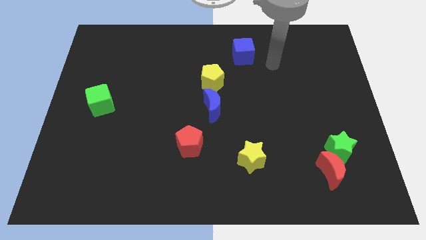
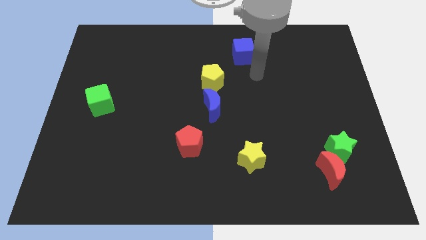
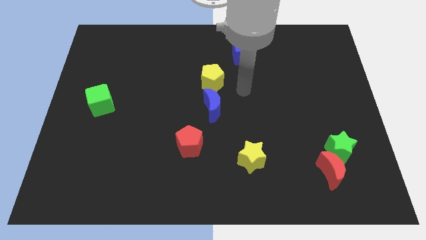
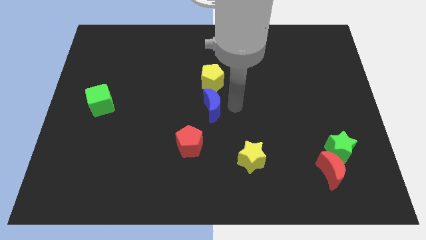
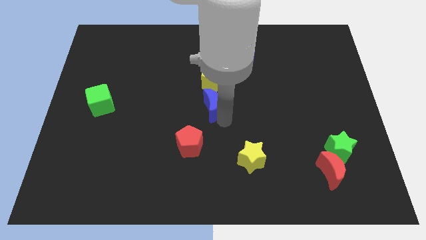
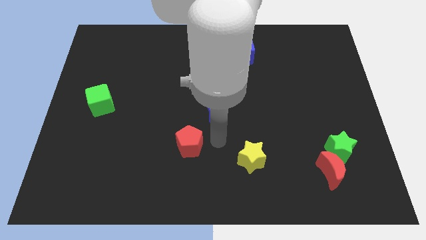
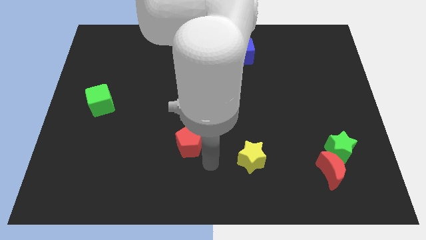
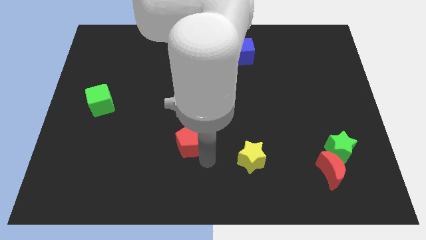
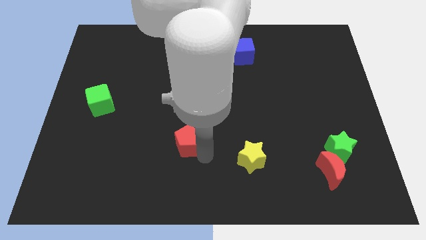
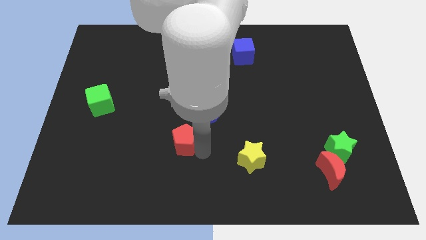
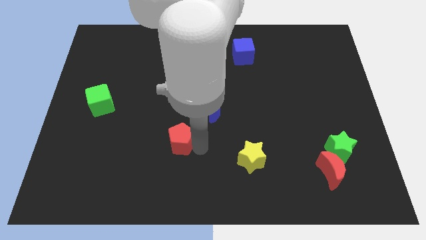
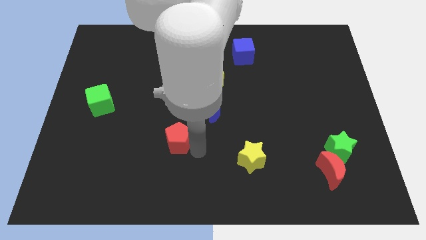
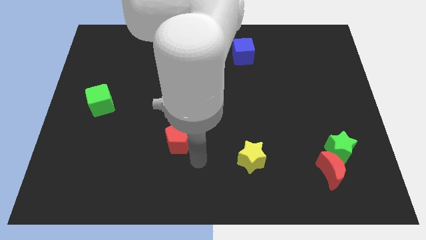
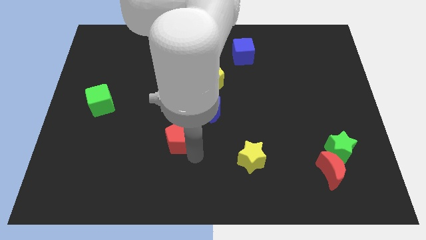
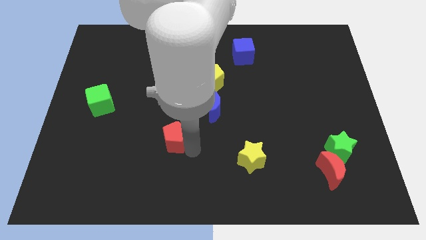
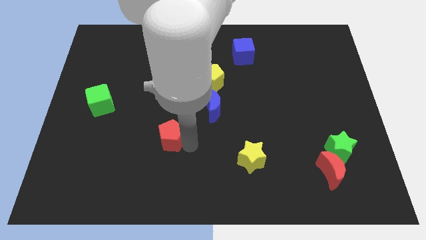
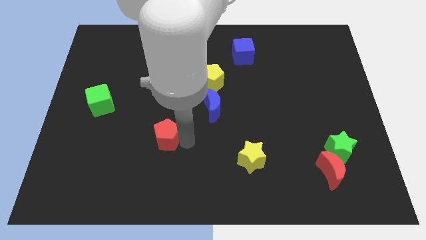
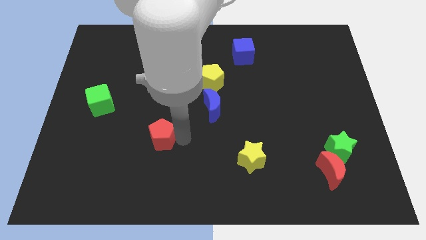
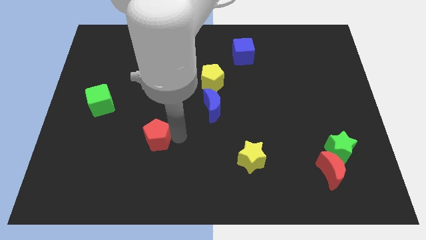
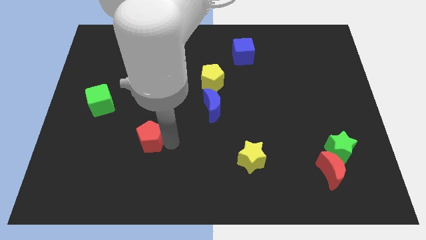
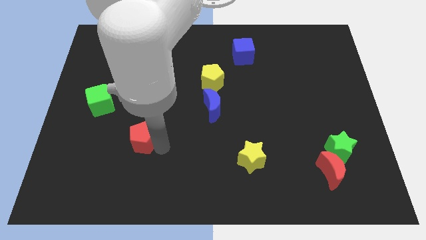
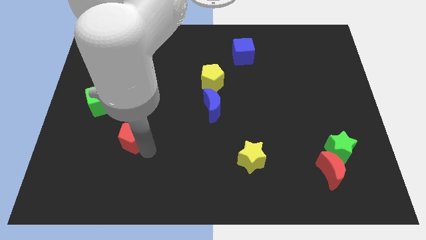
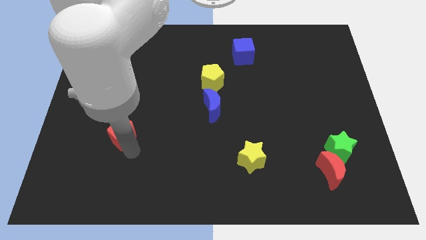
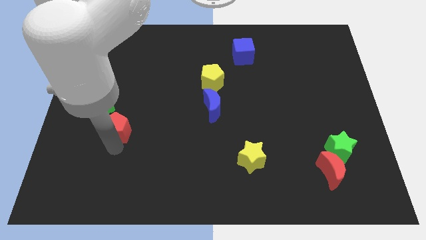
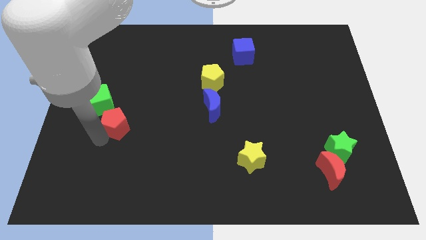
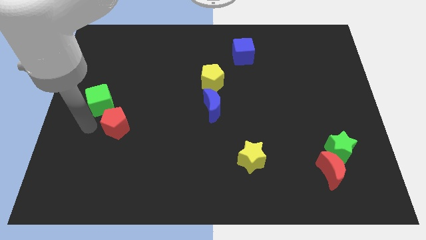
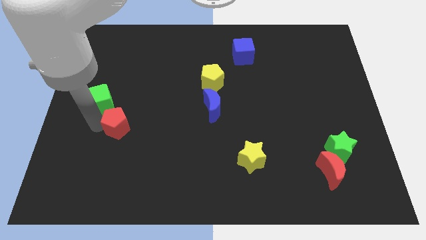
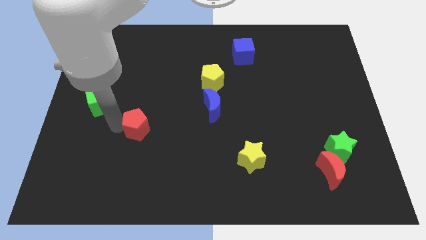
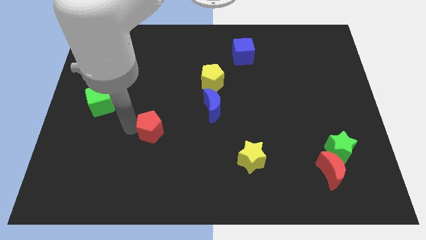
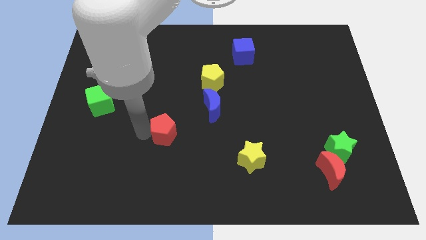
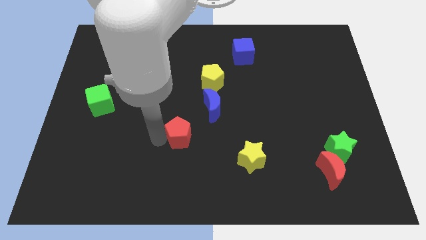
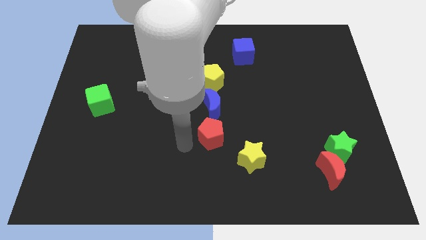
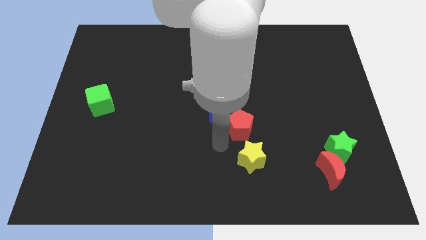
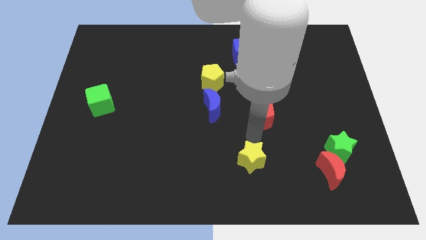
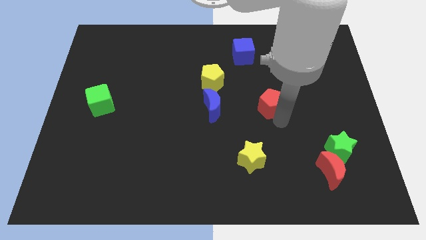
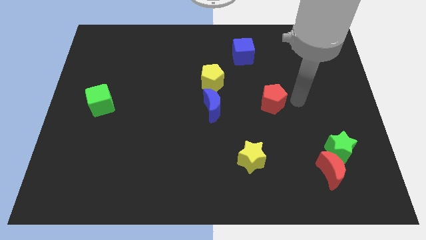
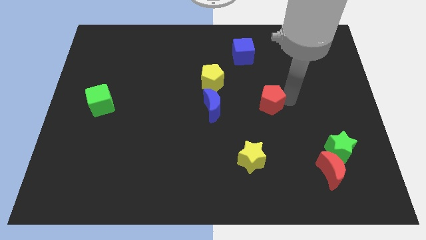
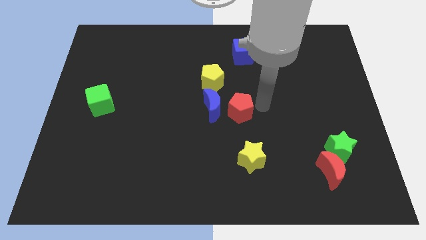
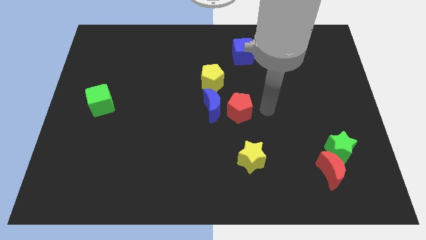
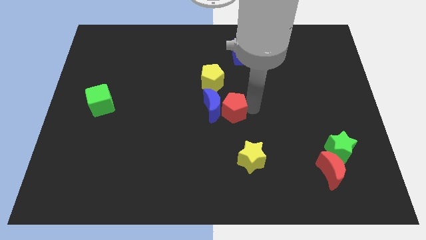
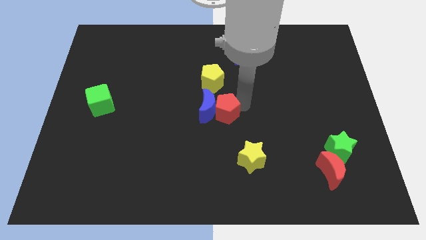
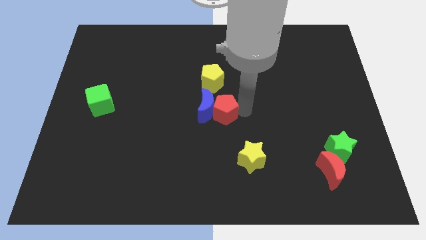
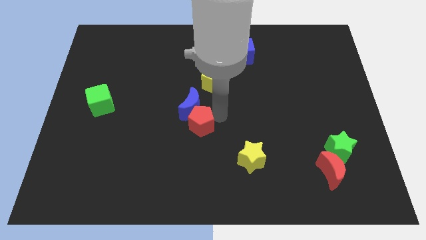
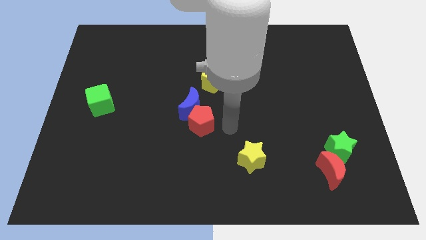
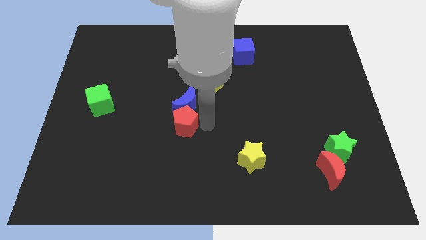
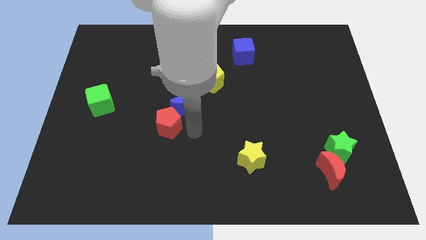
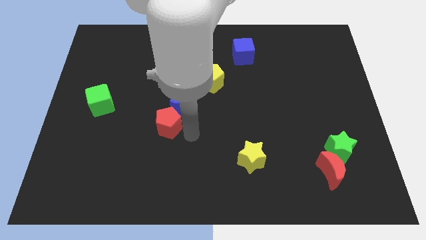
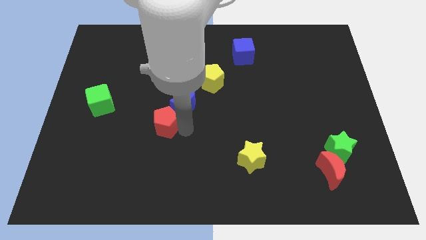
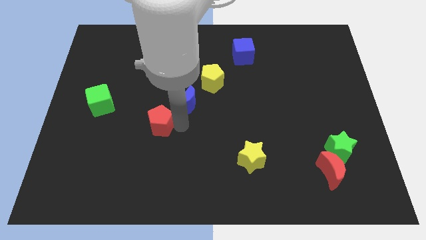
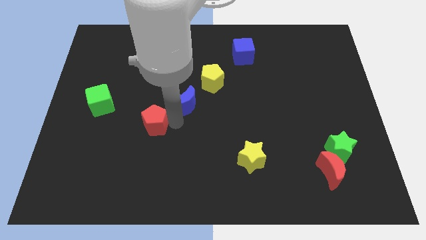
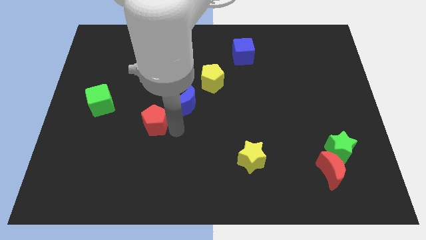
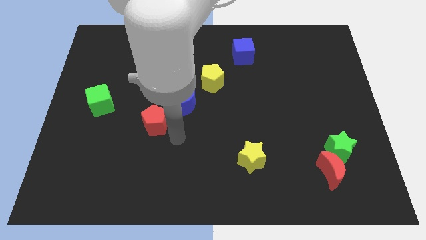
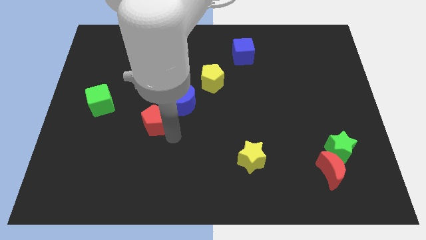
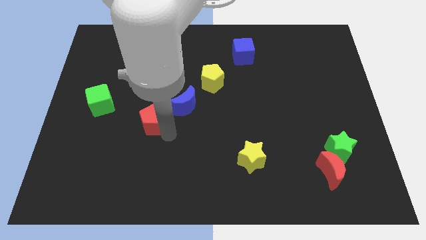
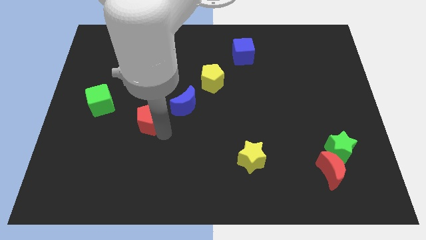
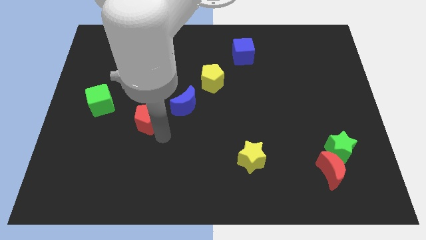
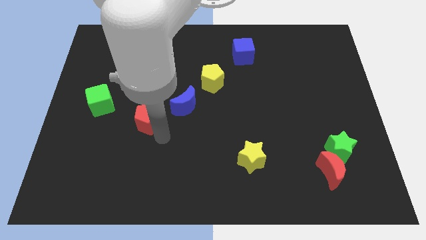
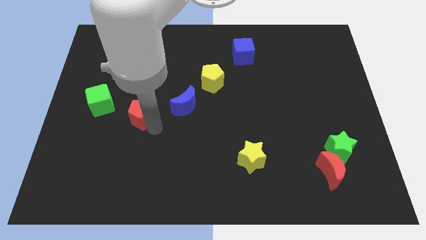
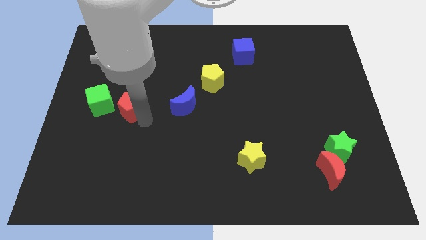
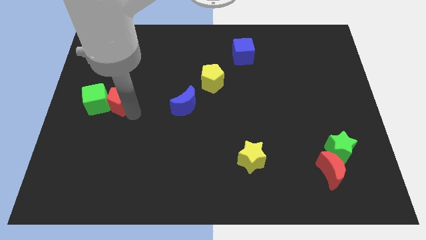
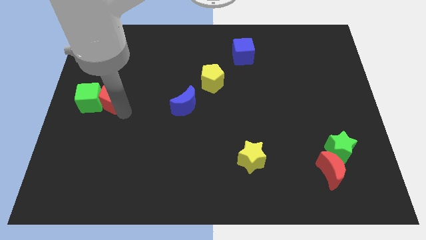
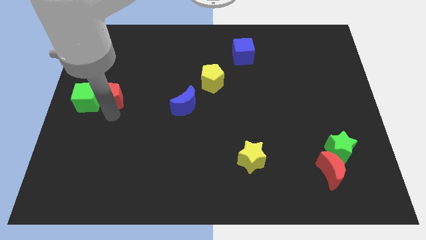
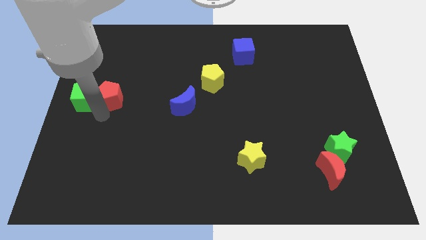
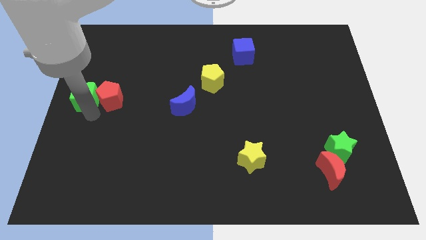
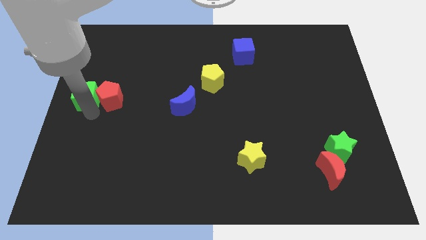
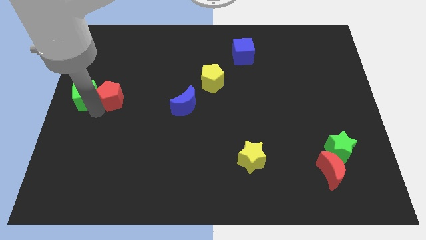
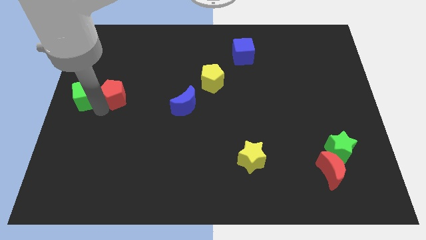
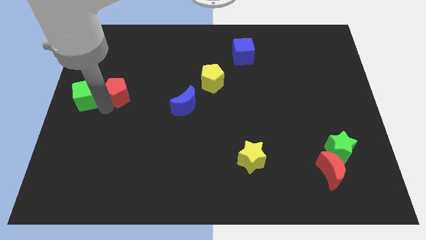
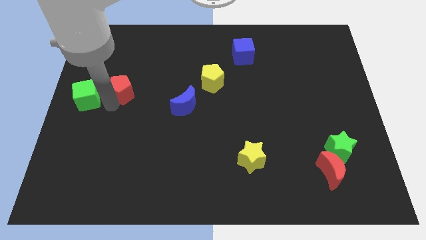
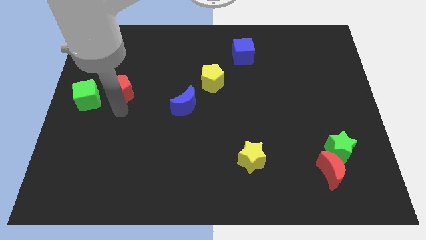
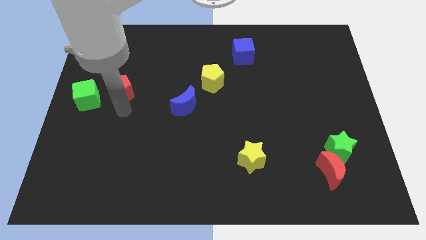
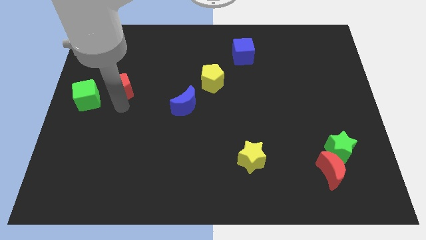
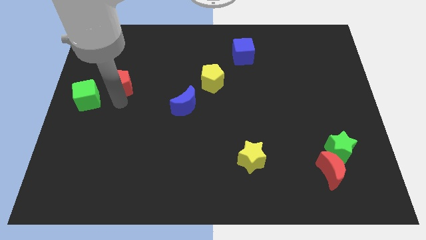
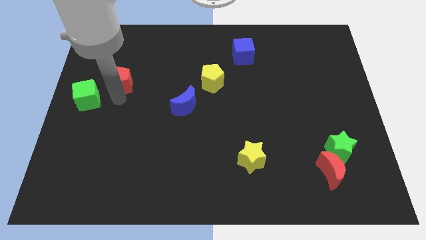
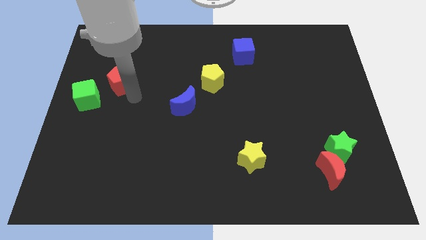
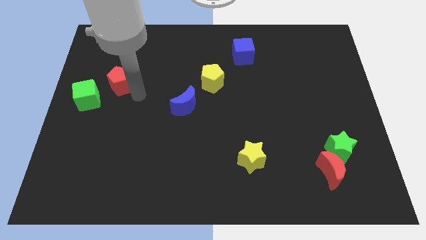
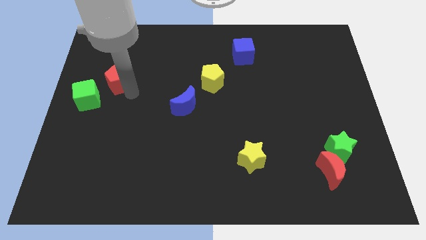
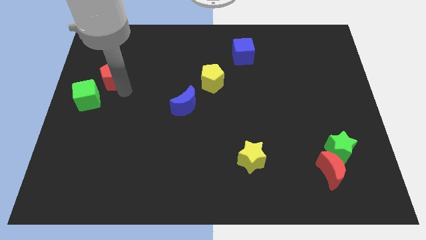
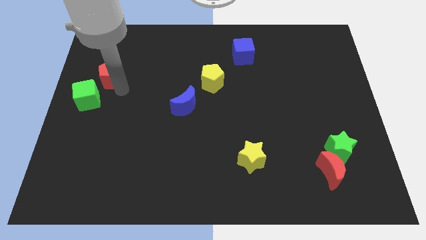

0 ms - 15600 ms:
push the red pentagon to the top side of the green cube
